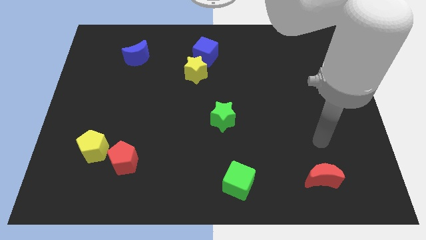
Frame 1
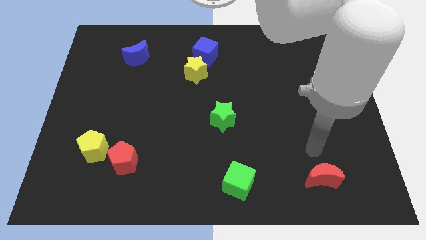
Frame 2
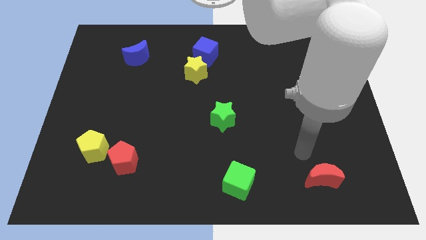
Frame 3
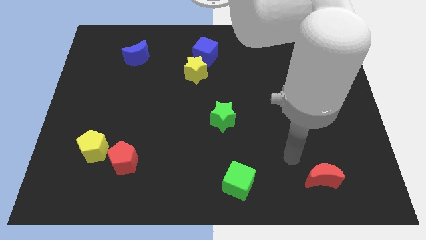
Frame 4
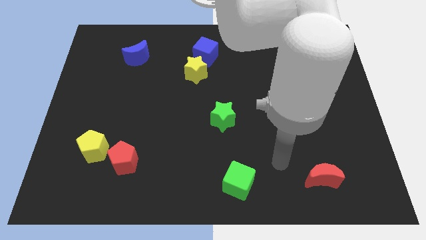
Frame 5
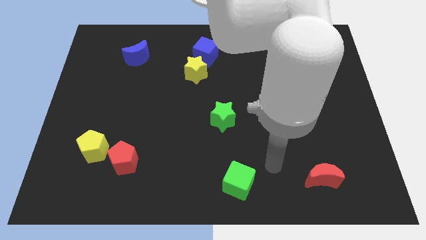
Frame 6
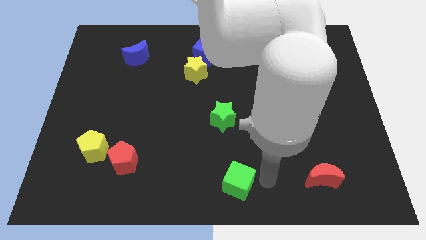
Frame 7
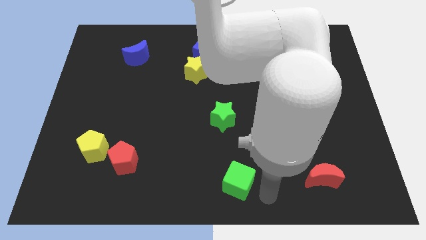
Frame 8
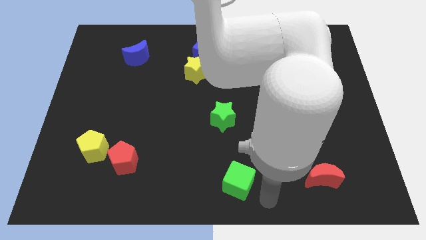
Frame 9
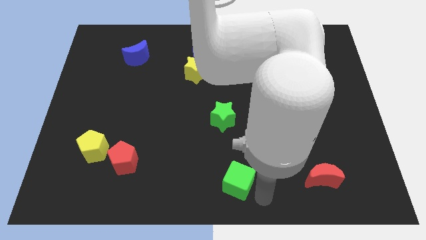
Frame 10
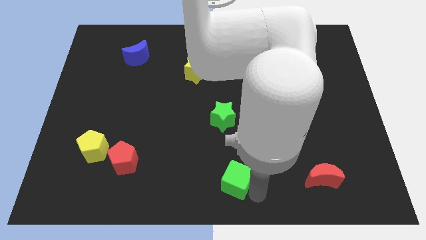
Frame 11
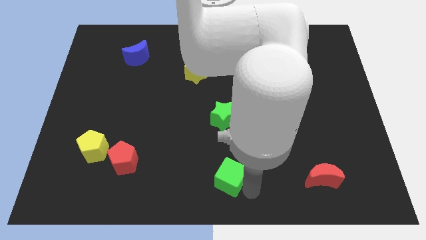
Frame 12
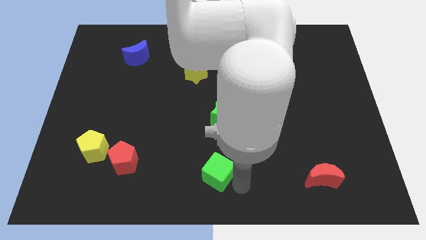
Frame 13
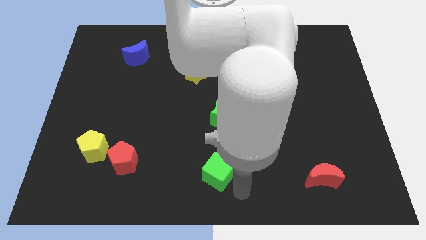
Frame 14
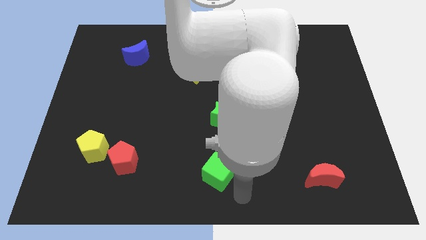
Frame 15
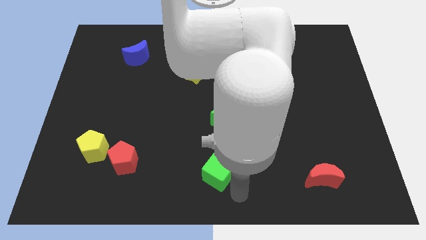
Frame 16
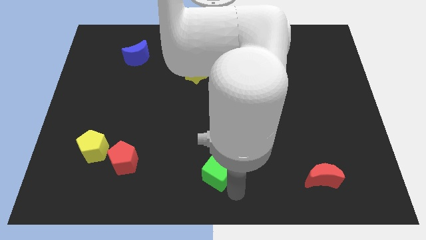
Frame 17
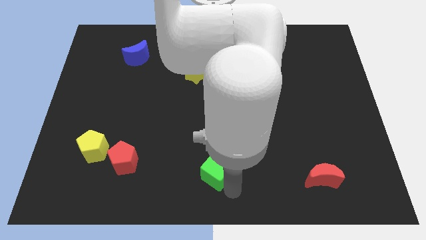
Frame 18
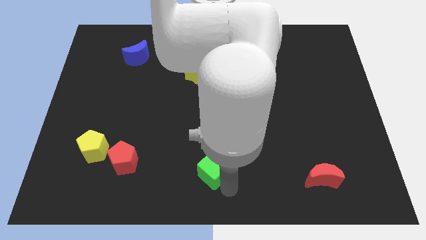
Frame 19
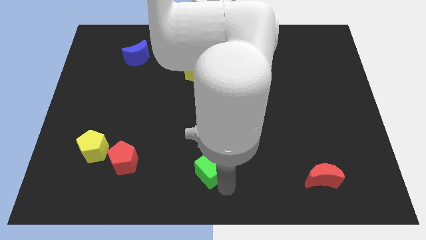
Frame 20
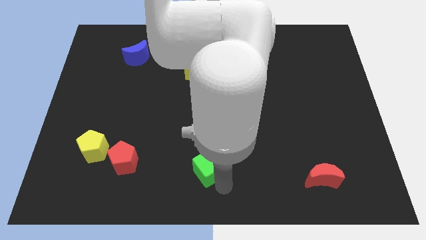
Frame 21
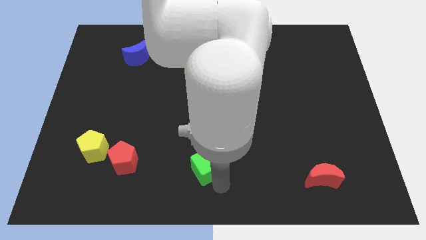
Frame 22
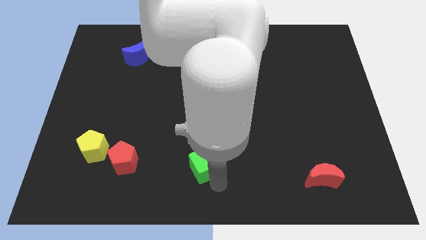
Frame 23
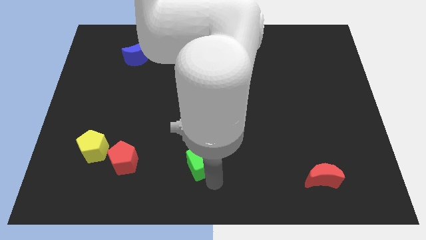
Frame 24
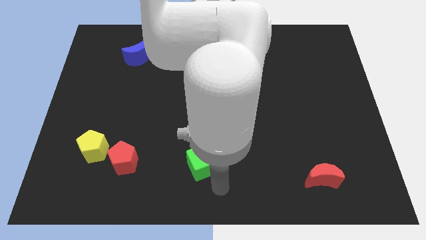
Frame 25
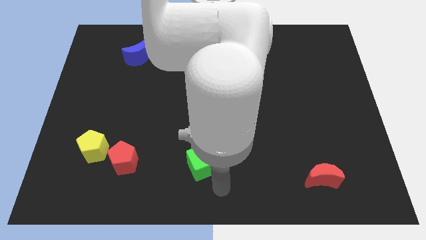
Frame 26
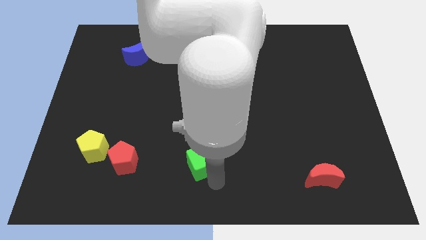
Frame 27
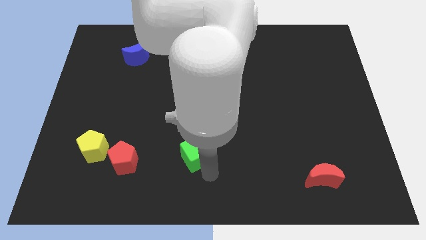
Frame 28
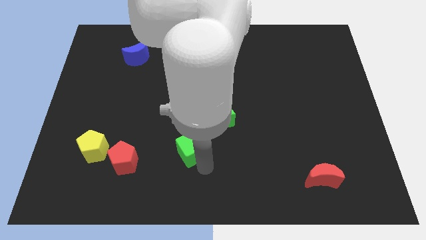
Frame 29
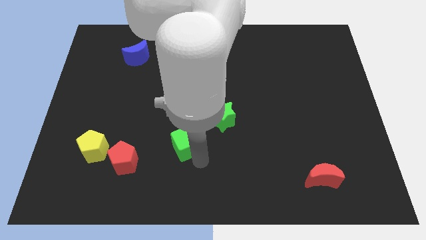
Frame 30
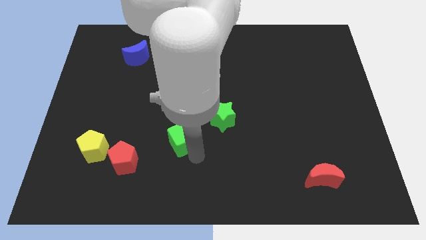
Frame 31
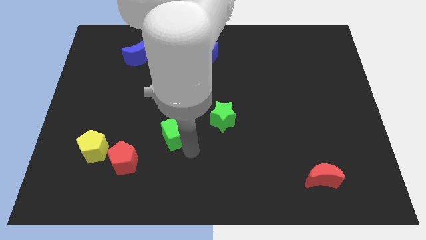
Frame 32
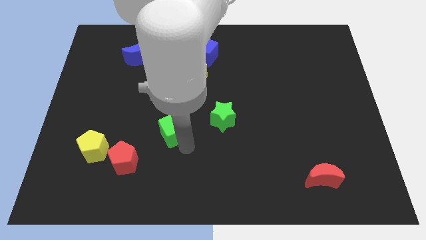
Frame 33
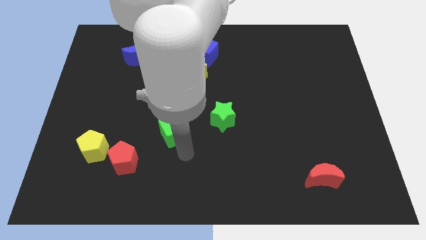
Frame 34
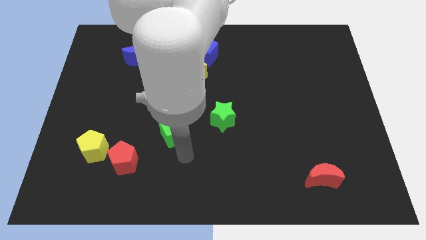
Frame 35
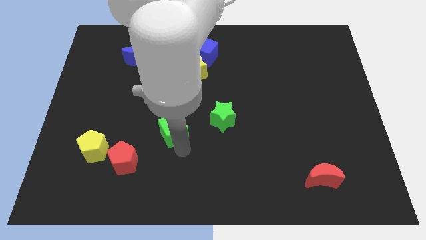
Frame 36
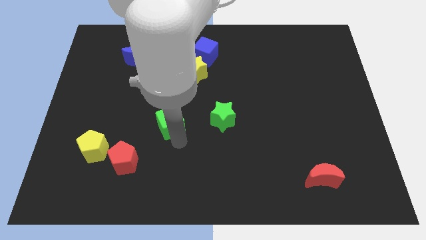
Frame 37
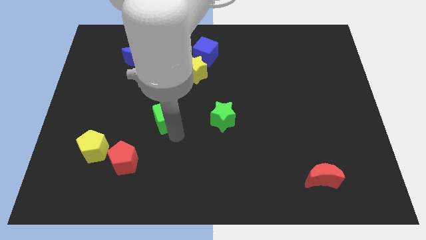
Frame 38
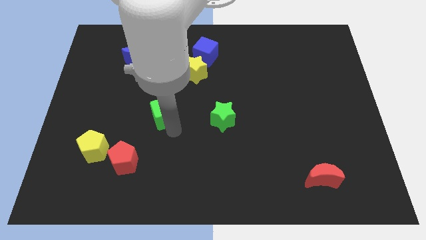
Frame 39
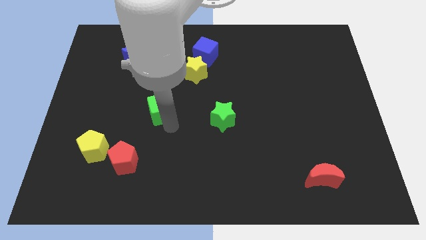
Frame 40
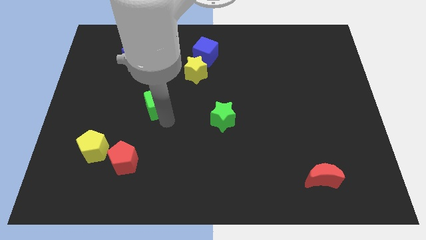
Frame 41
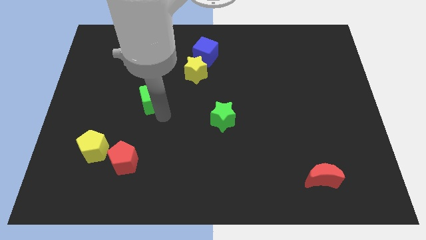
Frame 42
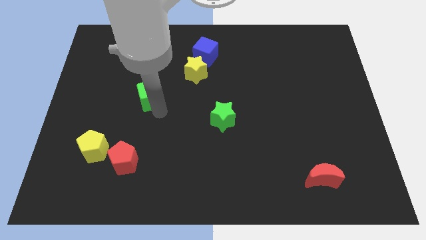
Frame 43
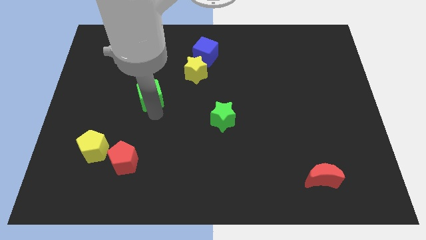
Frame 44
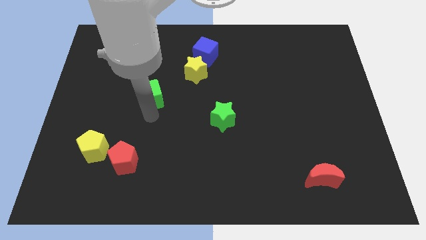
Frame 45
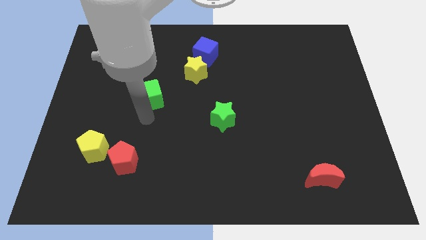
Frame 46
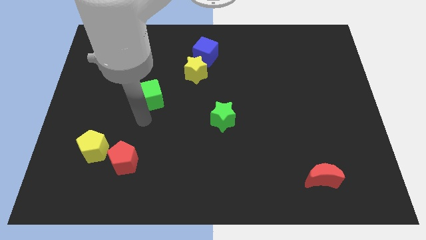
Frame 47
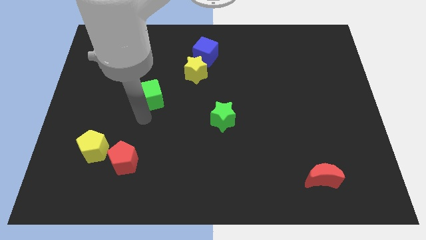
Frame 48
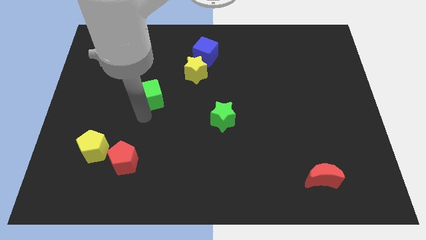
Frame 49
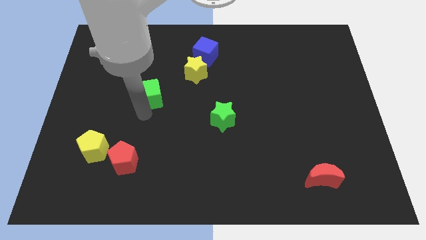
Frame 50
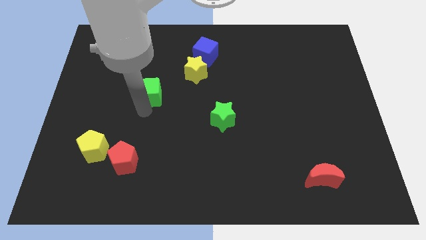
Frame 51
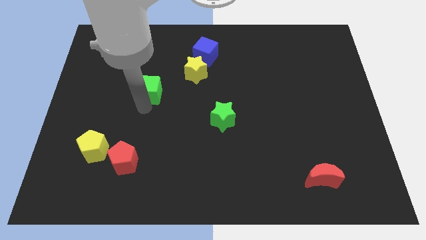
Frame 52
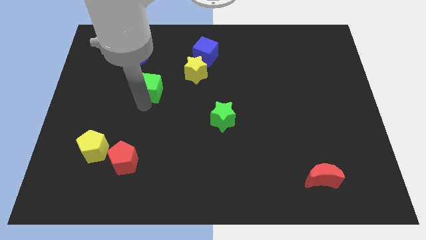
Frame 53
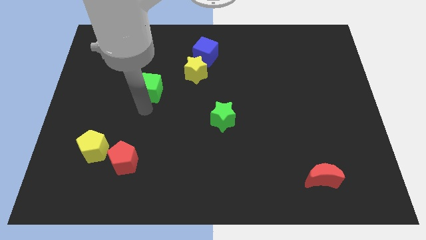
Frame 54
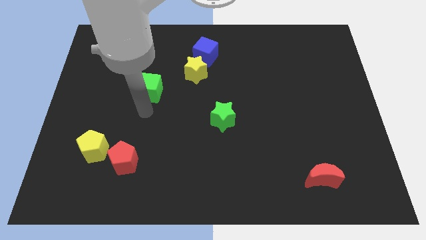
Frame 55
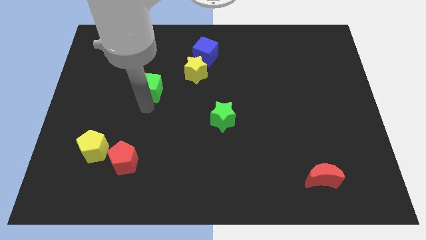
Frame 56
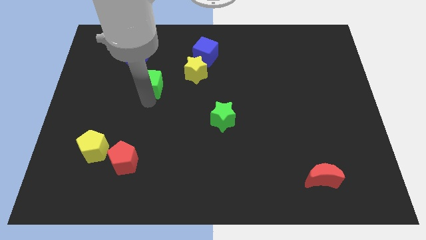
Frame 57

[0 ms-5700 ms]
slide the green cube just left of the yellow star

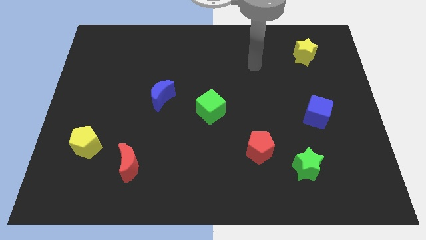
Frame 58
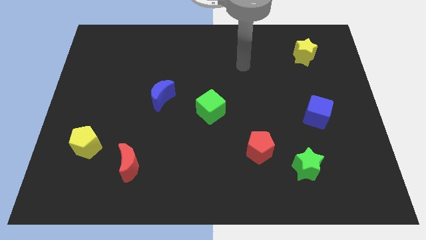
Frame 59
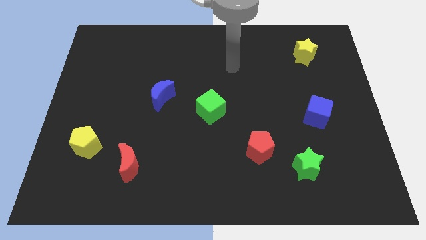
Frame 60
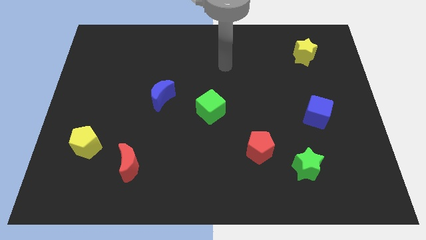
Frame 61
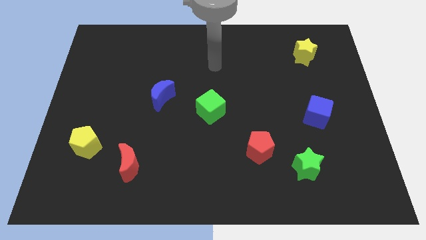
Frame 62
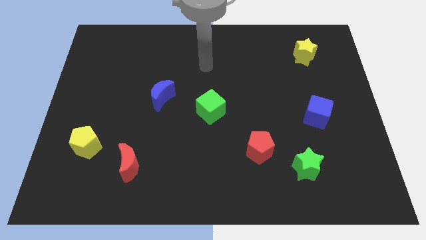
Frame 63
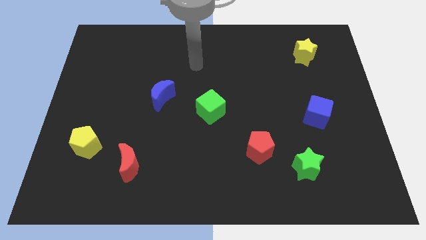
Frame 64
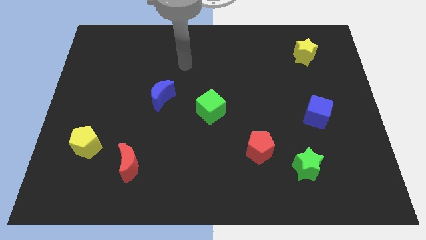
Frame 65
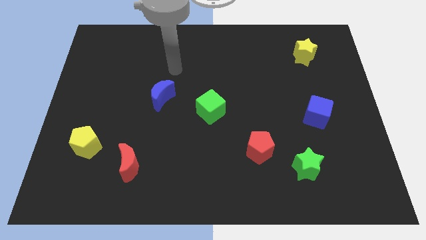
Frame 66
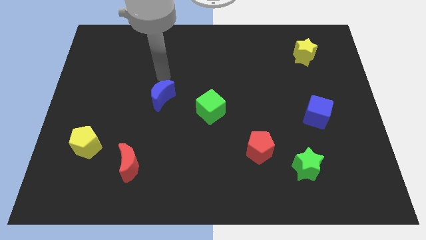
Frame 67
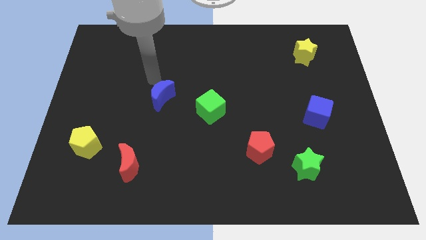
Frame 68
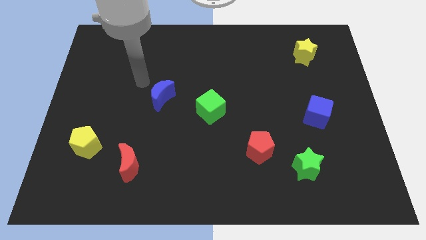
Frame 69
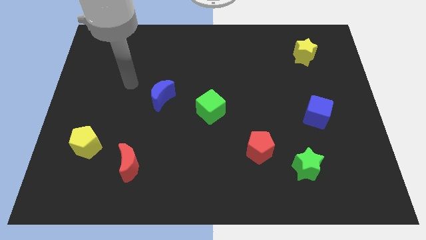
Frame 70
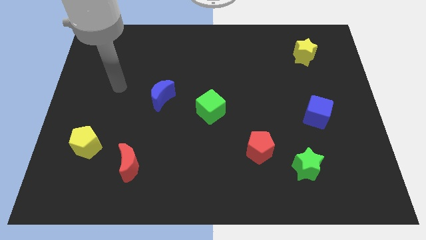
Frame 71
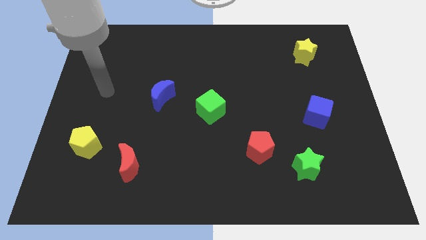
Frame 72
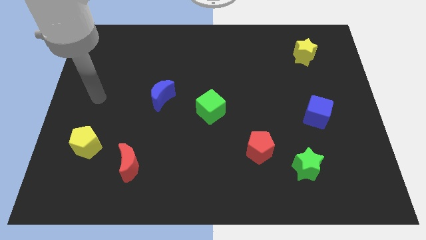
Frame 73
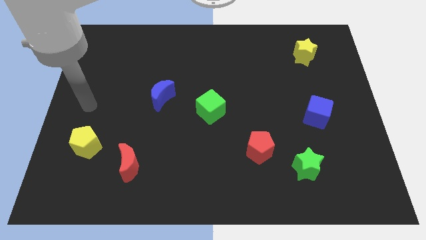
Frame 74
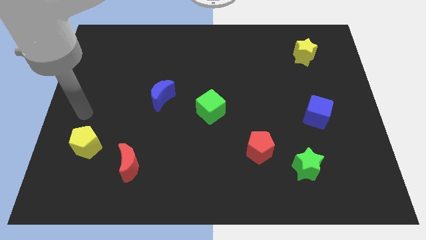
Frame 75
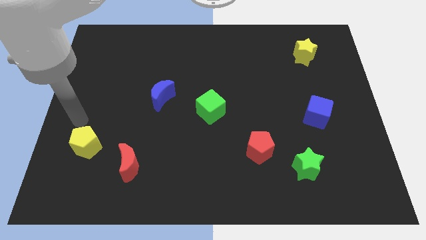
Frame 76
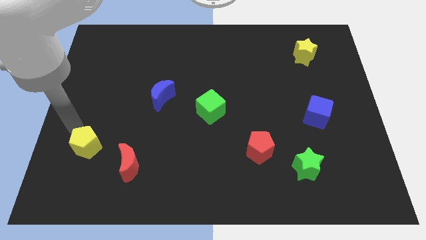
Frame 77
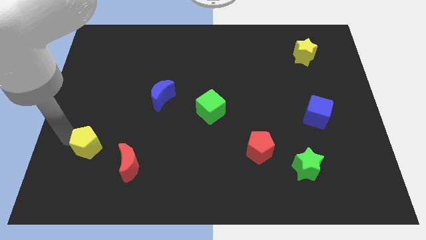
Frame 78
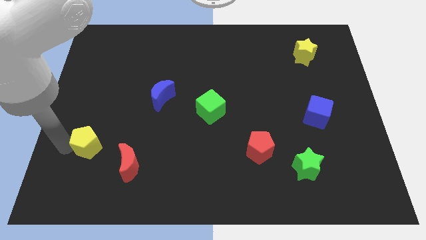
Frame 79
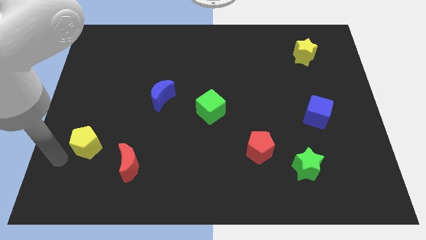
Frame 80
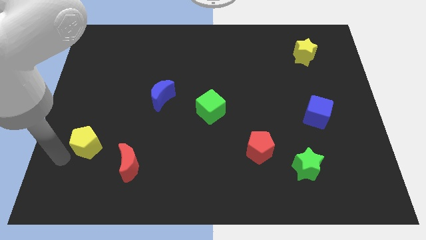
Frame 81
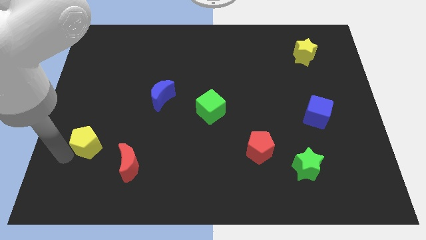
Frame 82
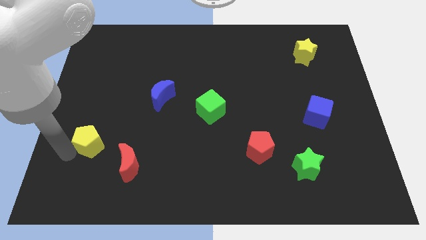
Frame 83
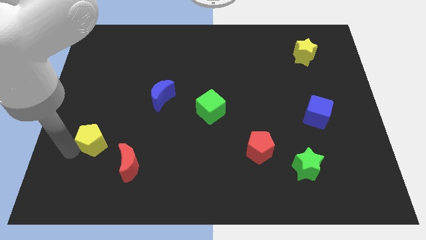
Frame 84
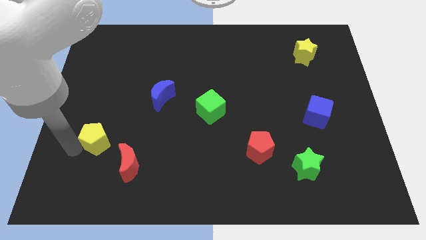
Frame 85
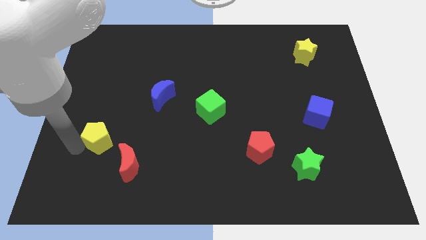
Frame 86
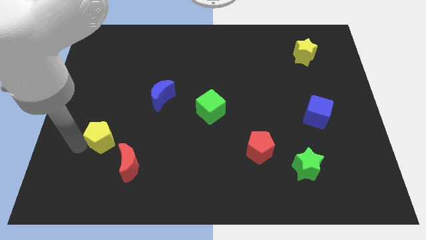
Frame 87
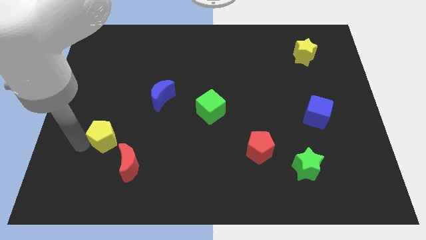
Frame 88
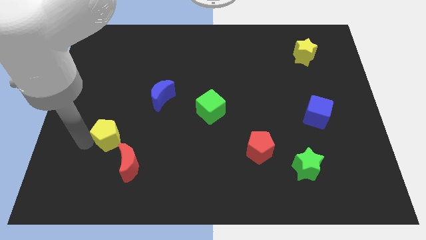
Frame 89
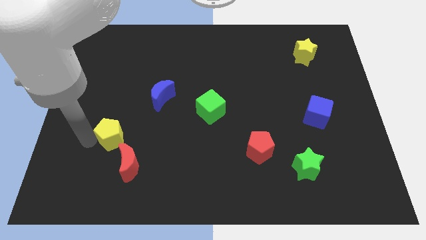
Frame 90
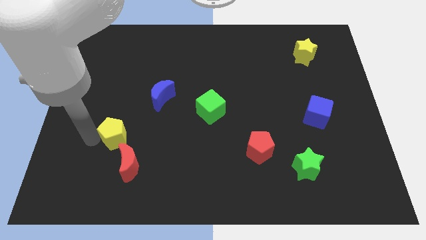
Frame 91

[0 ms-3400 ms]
push the yellow pentagon to the top of the red moon
